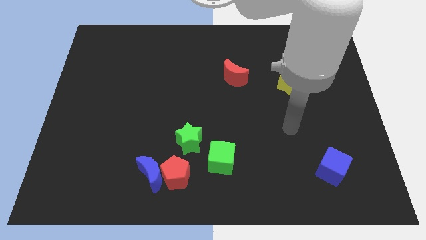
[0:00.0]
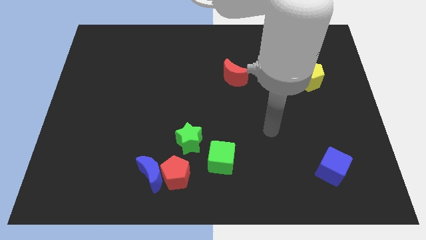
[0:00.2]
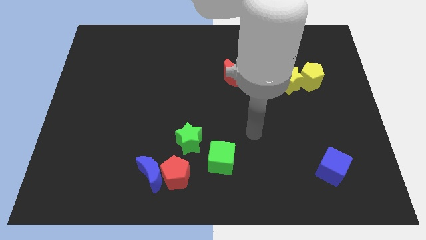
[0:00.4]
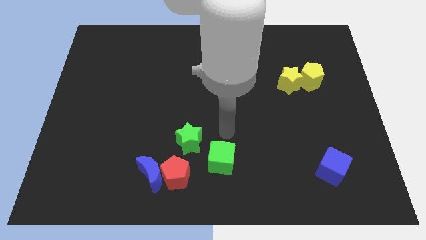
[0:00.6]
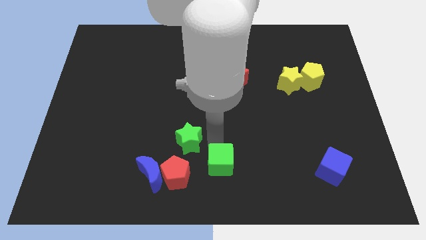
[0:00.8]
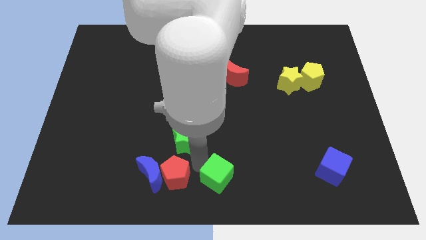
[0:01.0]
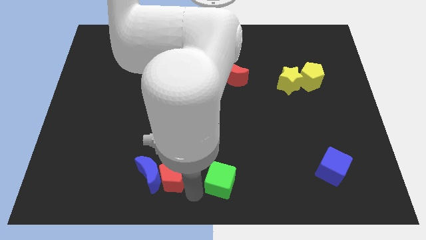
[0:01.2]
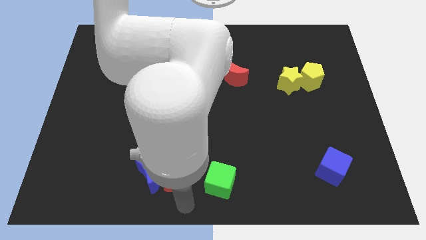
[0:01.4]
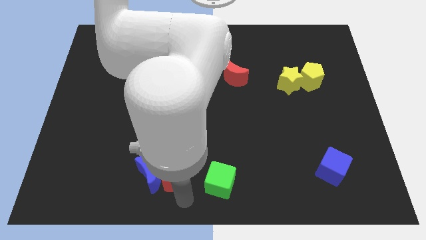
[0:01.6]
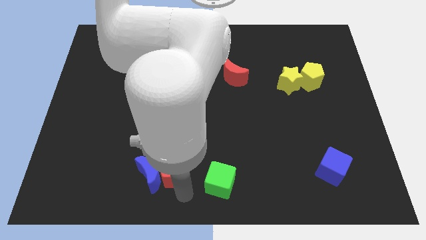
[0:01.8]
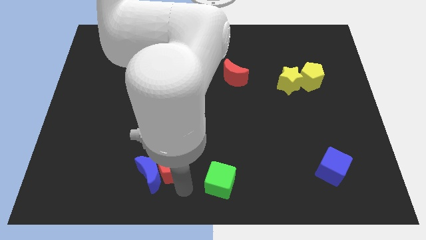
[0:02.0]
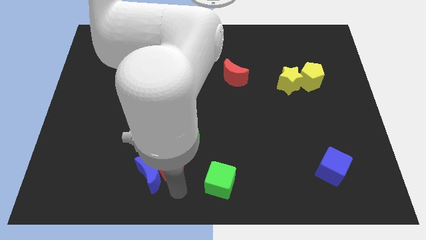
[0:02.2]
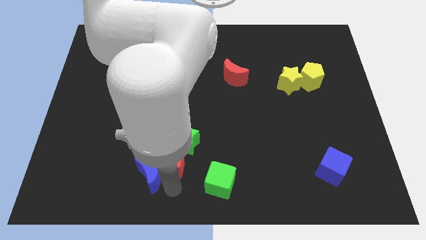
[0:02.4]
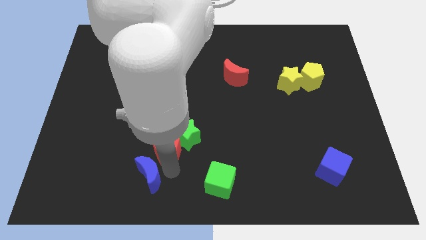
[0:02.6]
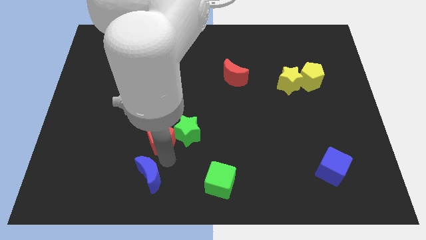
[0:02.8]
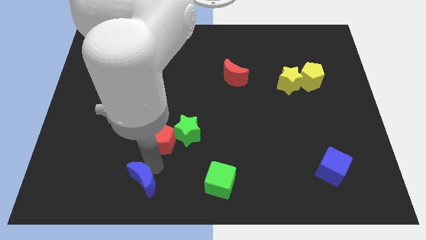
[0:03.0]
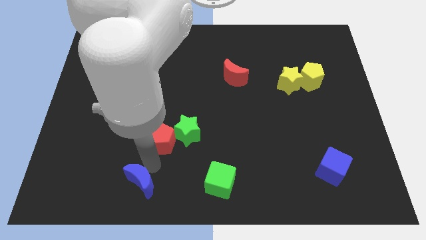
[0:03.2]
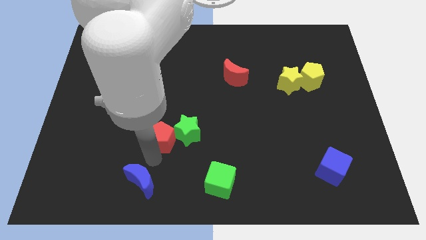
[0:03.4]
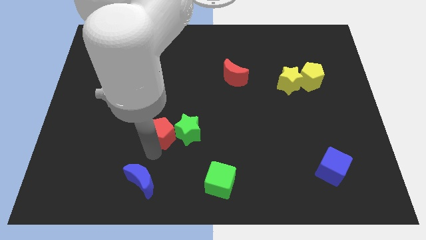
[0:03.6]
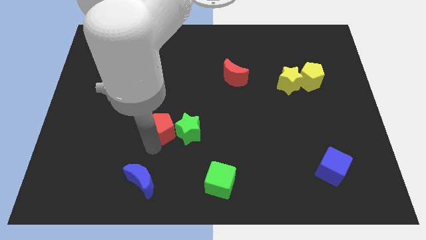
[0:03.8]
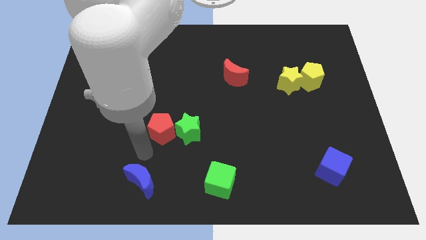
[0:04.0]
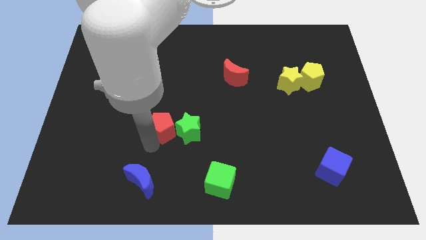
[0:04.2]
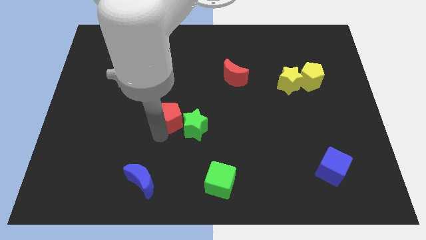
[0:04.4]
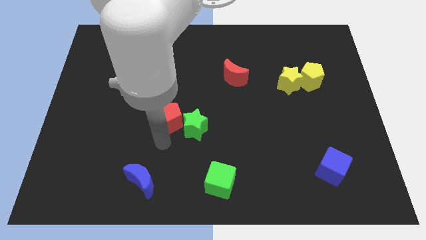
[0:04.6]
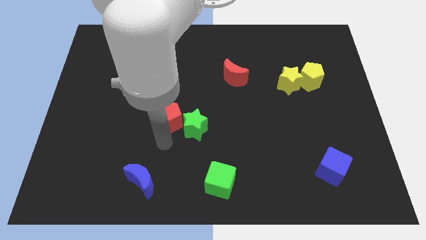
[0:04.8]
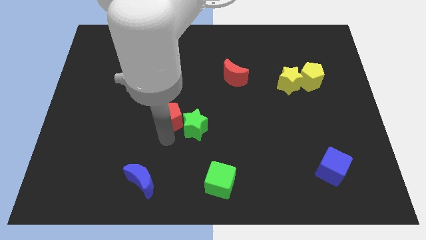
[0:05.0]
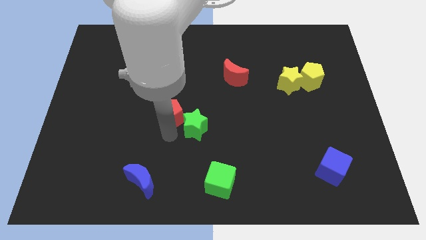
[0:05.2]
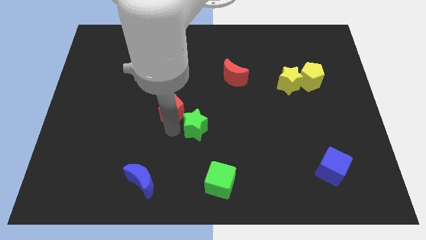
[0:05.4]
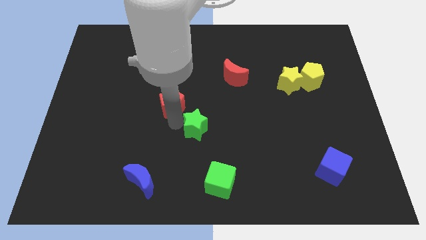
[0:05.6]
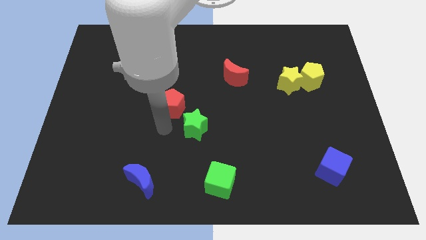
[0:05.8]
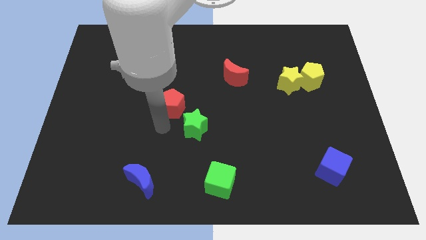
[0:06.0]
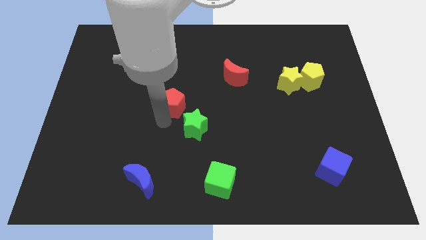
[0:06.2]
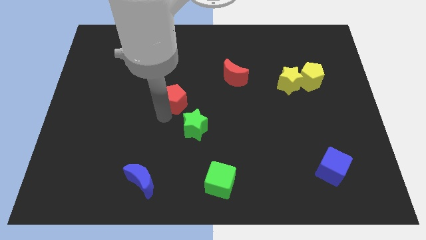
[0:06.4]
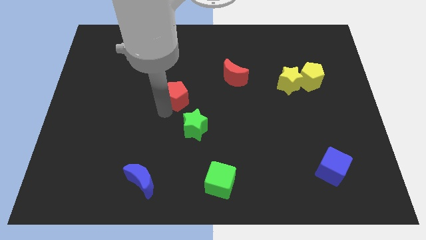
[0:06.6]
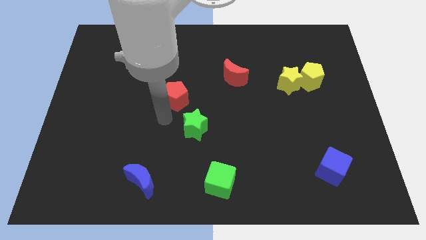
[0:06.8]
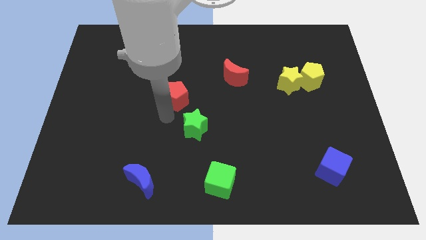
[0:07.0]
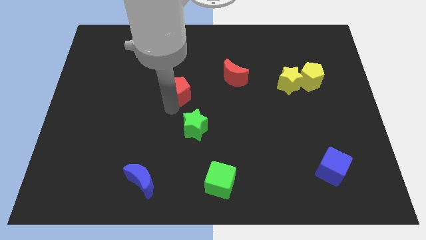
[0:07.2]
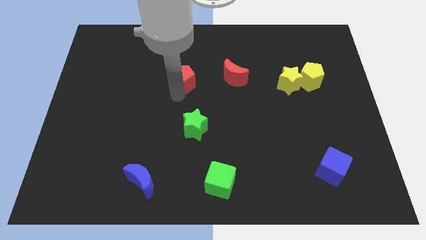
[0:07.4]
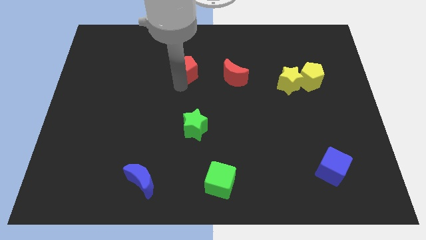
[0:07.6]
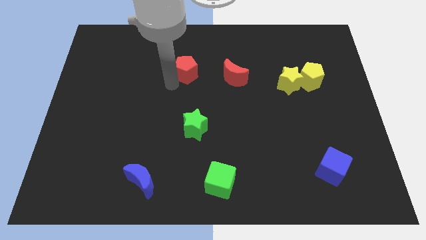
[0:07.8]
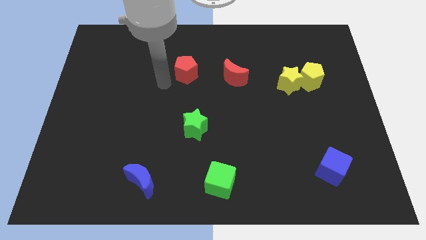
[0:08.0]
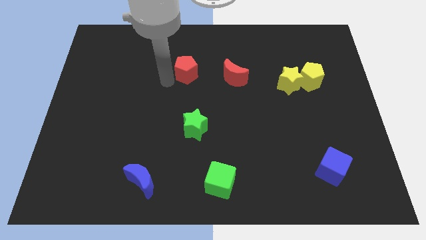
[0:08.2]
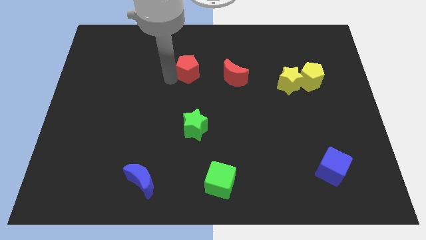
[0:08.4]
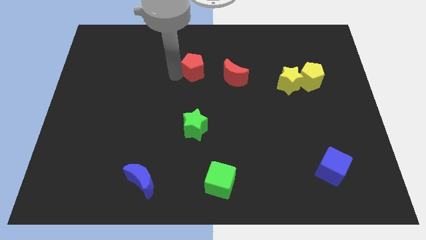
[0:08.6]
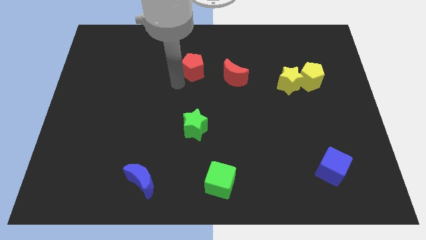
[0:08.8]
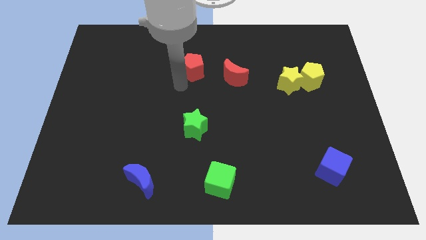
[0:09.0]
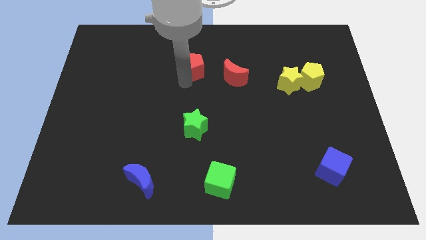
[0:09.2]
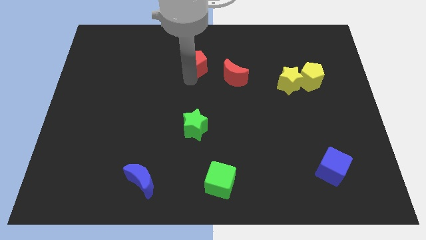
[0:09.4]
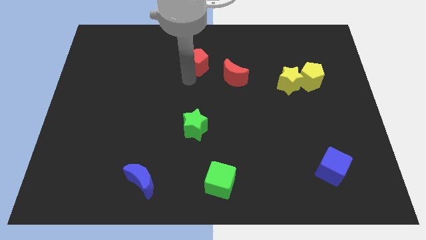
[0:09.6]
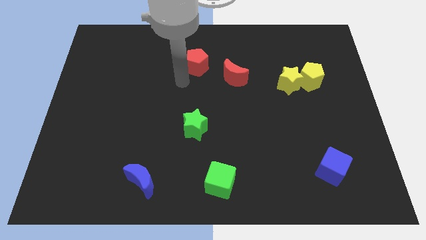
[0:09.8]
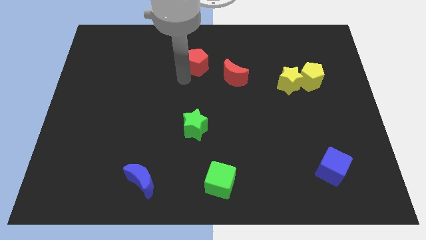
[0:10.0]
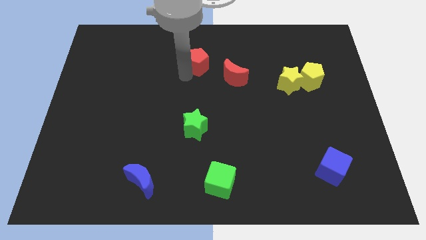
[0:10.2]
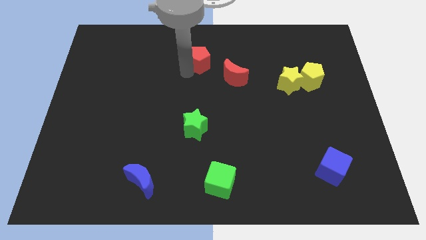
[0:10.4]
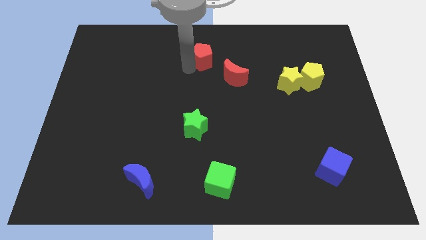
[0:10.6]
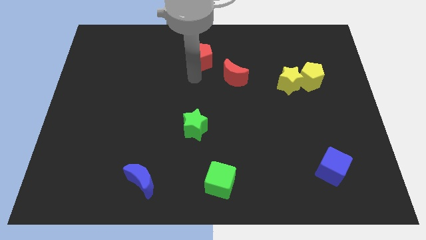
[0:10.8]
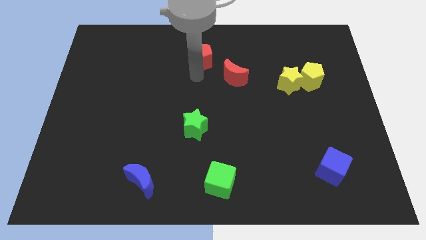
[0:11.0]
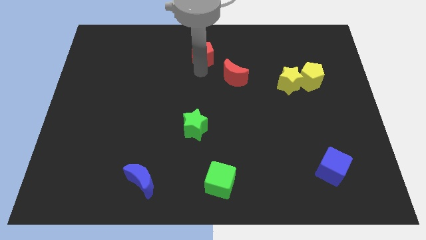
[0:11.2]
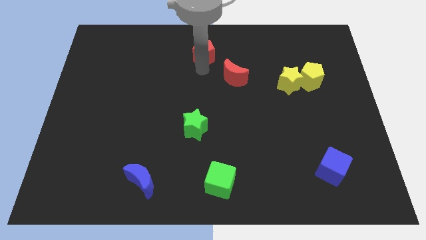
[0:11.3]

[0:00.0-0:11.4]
put the red pentagon to the towards your base
